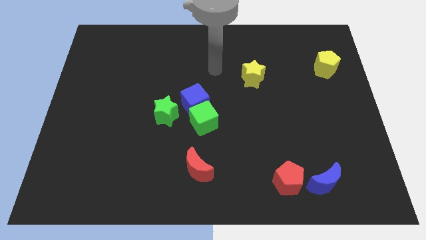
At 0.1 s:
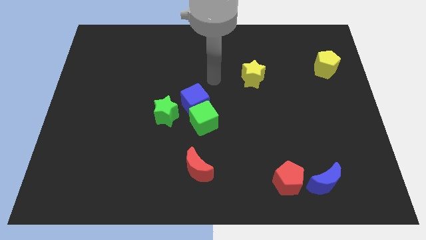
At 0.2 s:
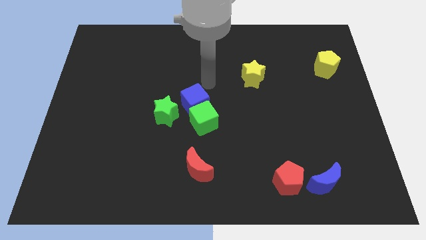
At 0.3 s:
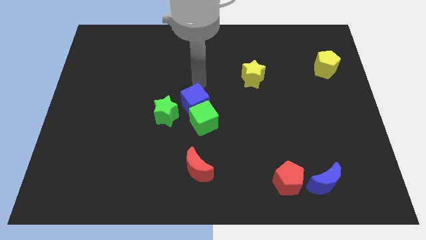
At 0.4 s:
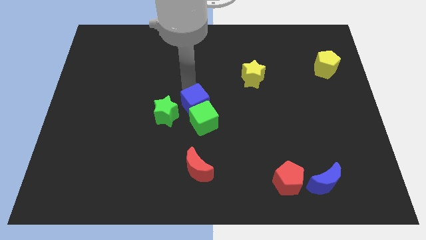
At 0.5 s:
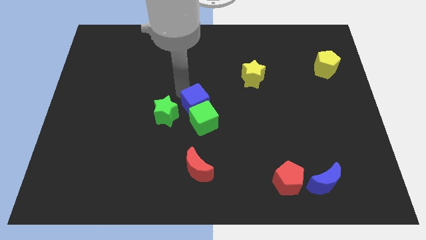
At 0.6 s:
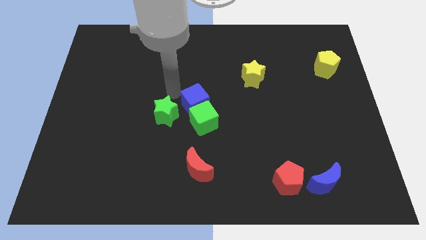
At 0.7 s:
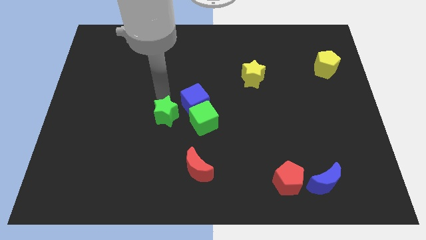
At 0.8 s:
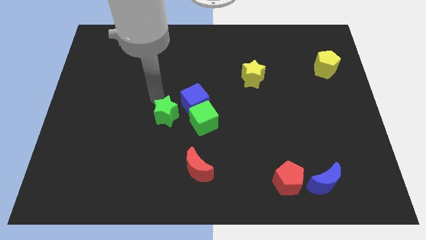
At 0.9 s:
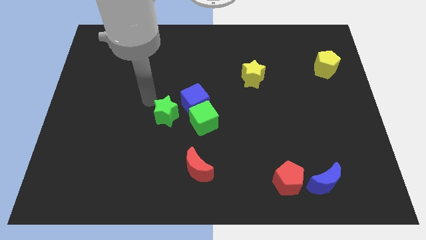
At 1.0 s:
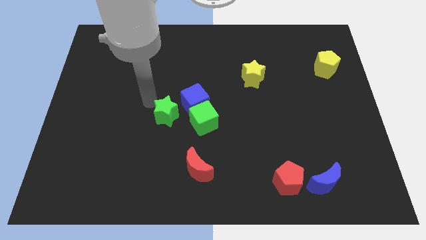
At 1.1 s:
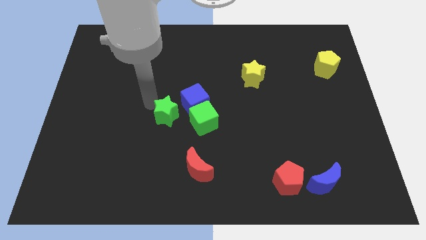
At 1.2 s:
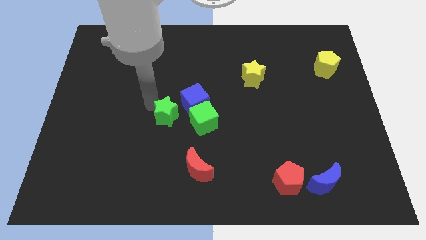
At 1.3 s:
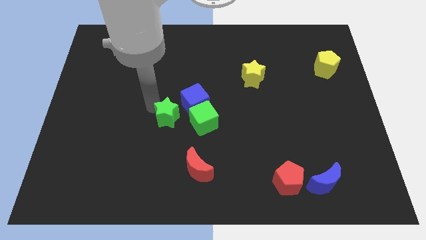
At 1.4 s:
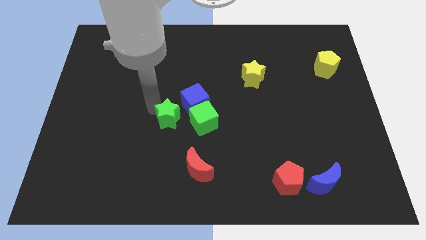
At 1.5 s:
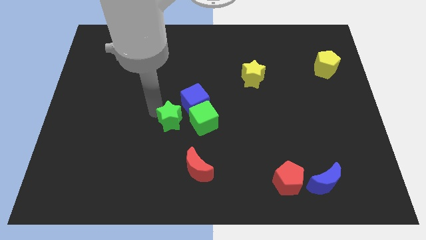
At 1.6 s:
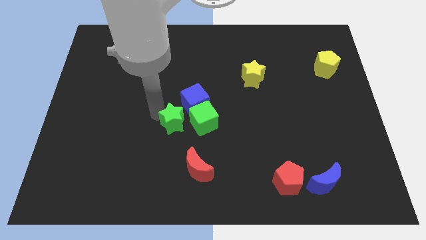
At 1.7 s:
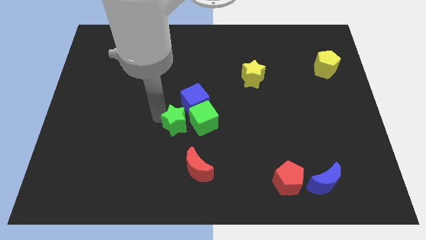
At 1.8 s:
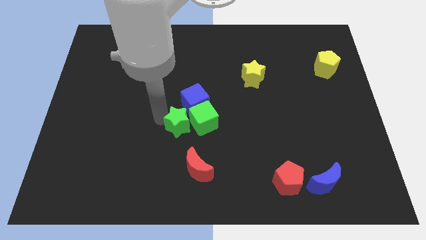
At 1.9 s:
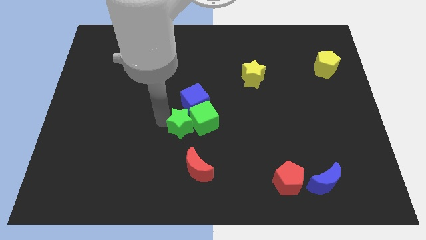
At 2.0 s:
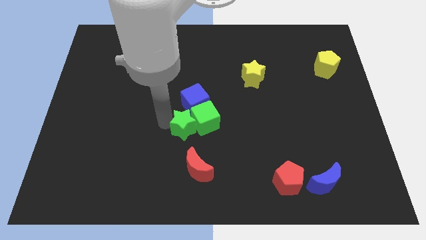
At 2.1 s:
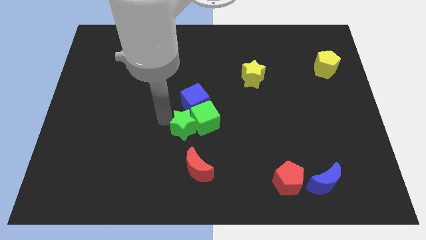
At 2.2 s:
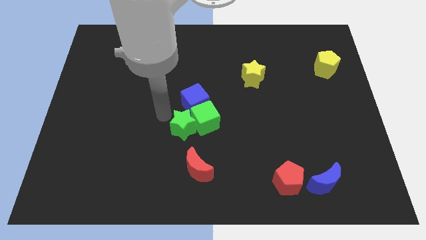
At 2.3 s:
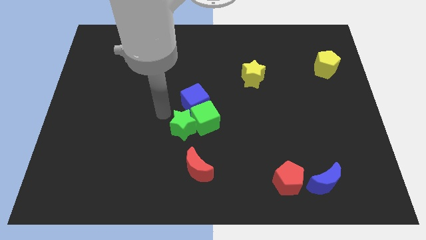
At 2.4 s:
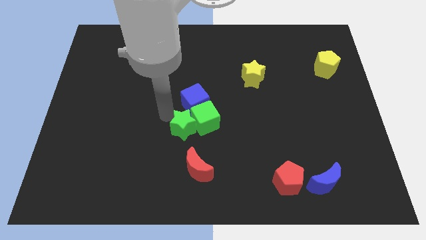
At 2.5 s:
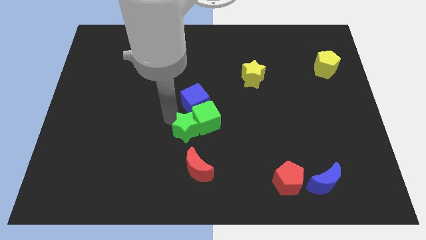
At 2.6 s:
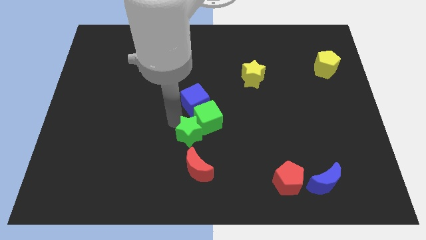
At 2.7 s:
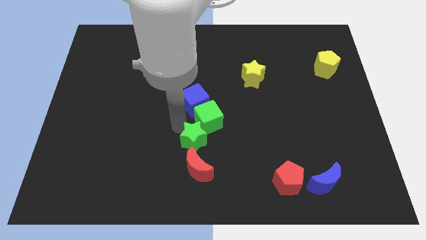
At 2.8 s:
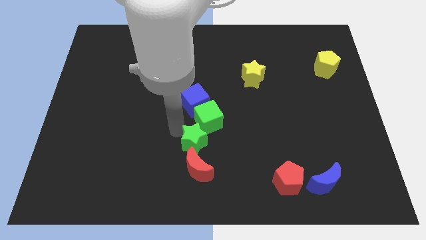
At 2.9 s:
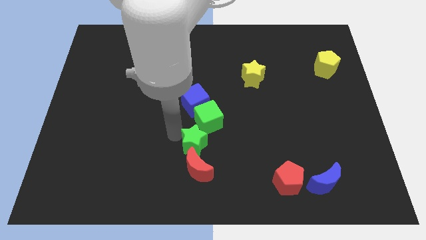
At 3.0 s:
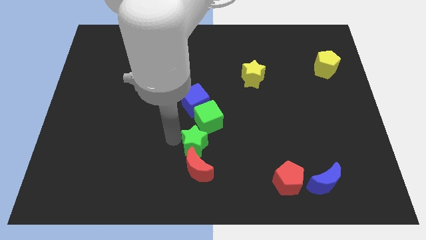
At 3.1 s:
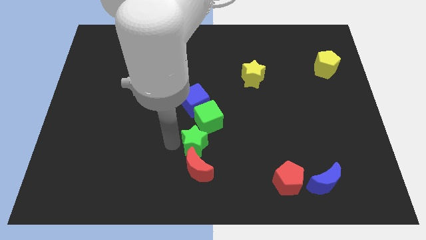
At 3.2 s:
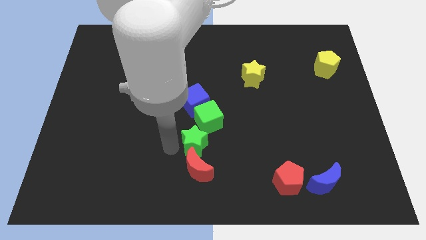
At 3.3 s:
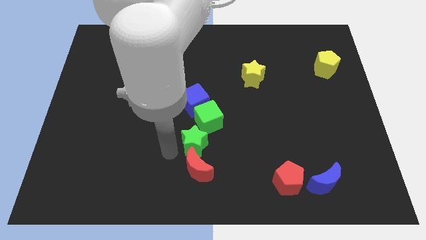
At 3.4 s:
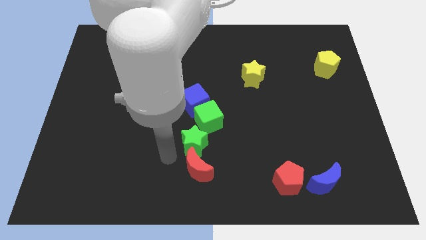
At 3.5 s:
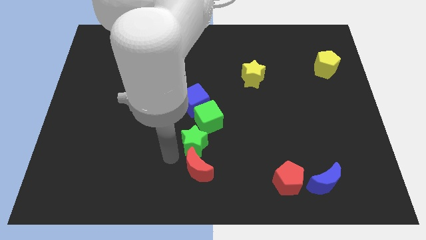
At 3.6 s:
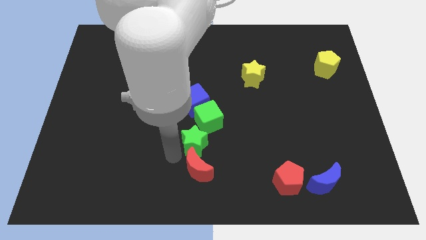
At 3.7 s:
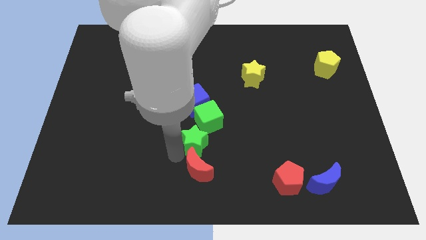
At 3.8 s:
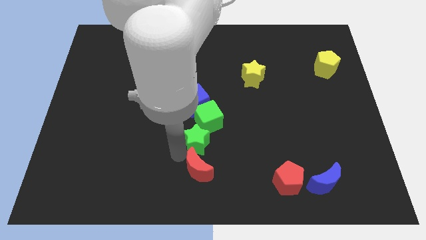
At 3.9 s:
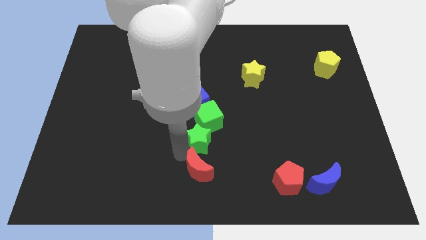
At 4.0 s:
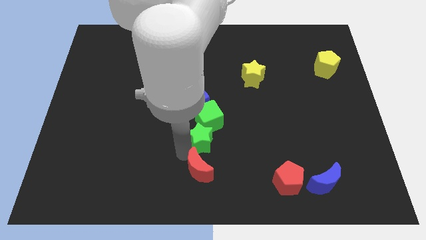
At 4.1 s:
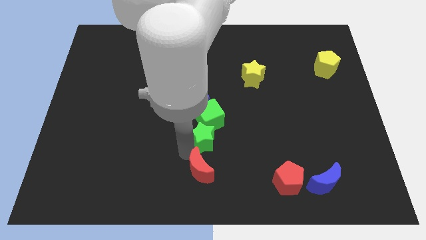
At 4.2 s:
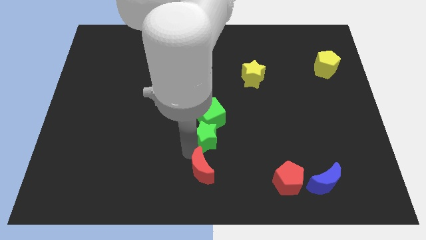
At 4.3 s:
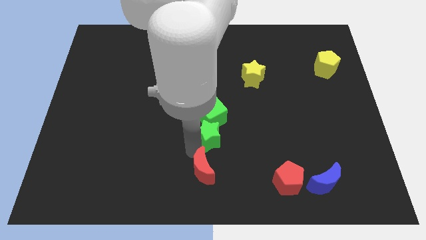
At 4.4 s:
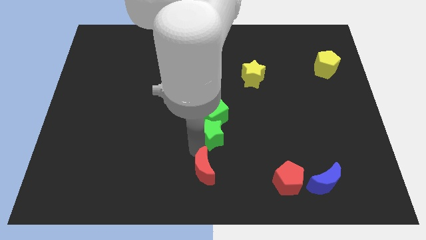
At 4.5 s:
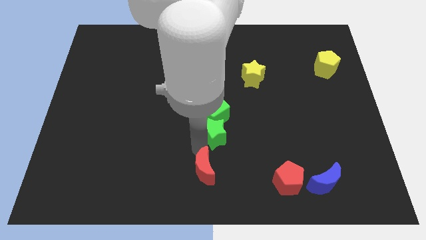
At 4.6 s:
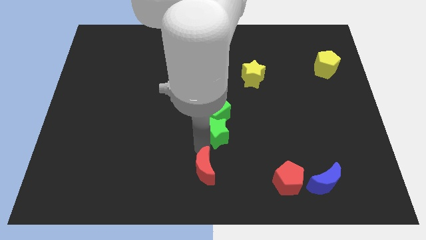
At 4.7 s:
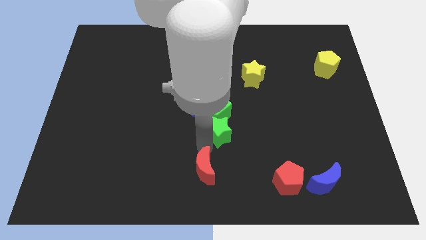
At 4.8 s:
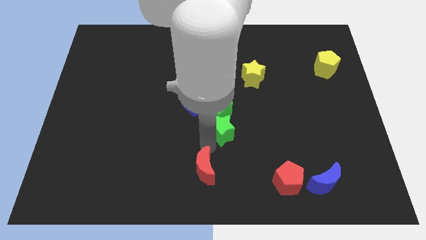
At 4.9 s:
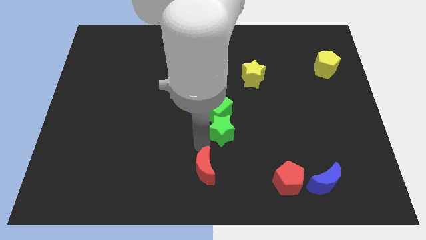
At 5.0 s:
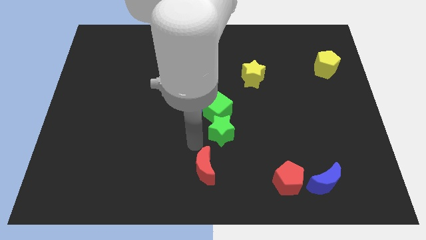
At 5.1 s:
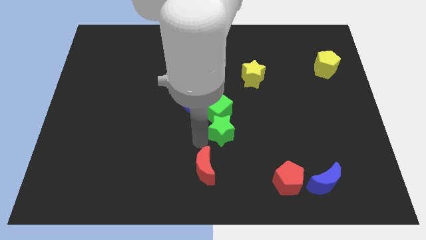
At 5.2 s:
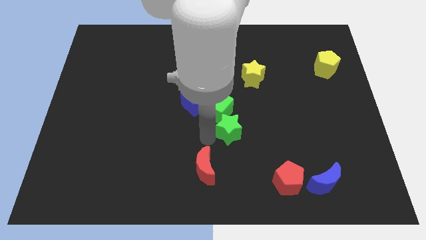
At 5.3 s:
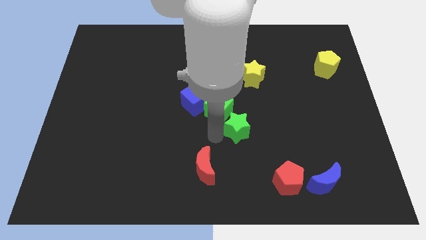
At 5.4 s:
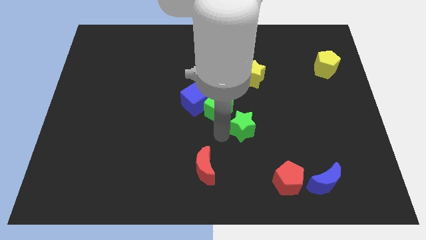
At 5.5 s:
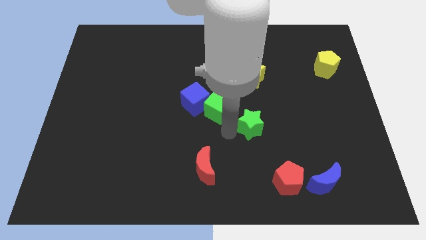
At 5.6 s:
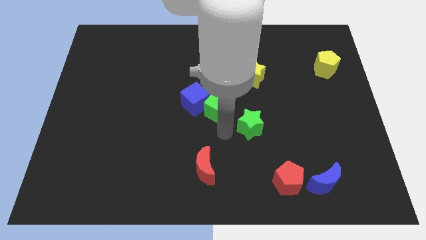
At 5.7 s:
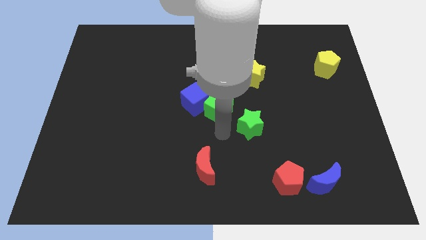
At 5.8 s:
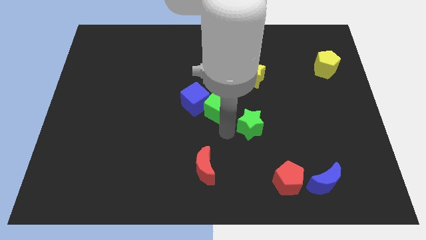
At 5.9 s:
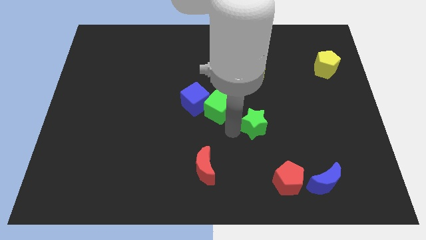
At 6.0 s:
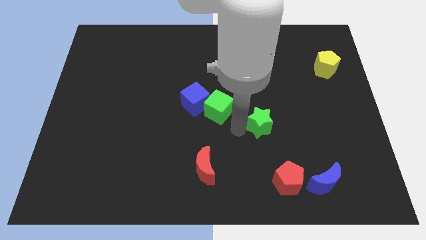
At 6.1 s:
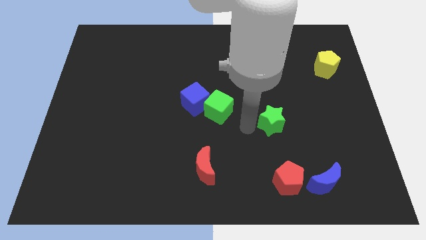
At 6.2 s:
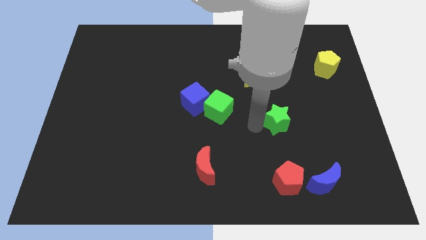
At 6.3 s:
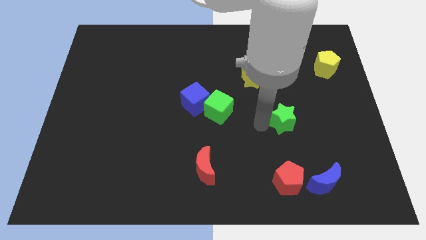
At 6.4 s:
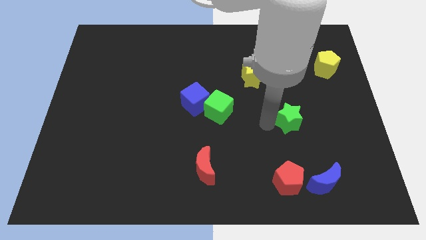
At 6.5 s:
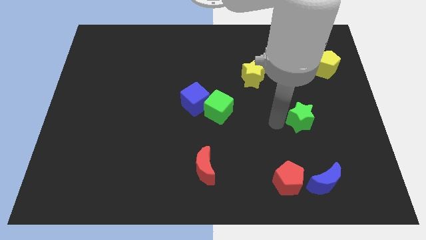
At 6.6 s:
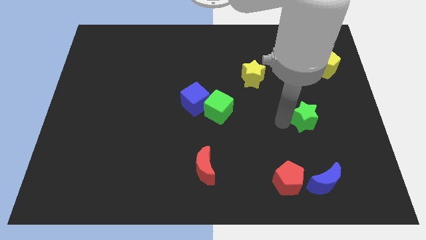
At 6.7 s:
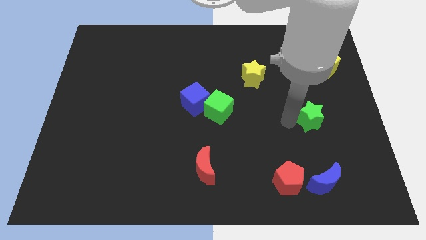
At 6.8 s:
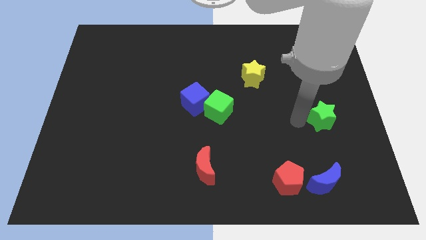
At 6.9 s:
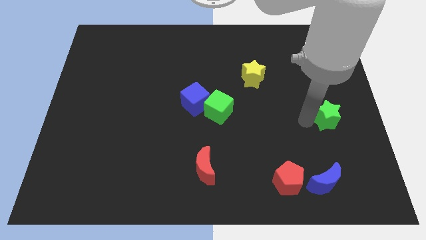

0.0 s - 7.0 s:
push the green star to the right side of the board
